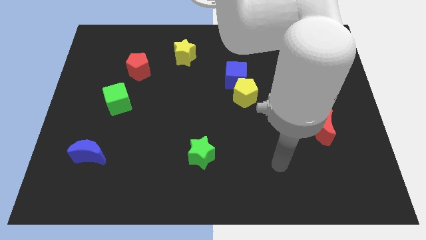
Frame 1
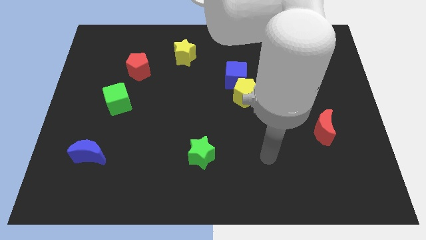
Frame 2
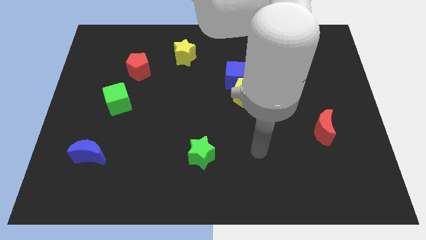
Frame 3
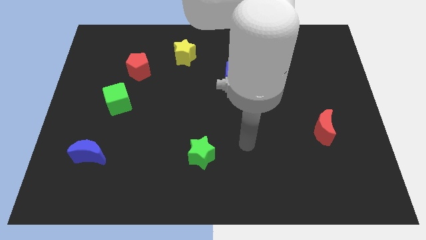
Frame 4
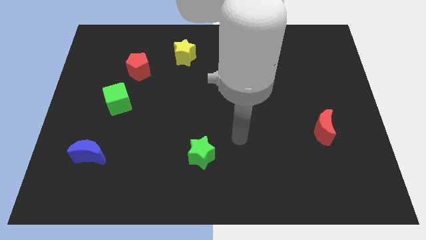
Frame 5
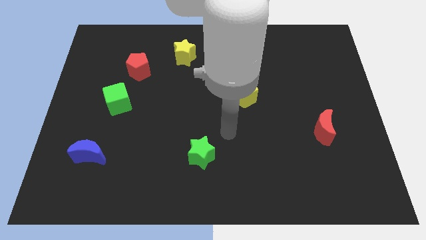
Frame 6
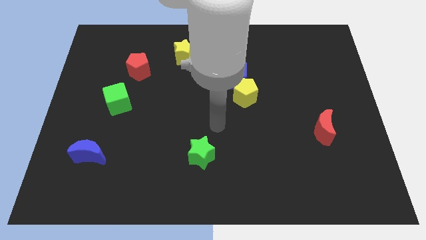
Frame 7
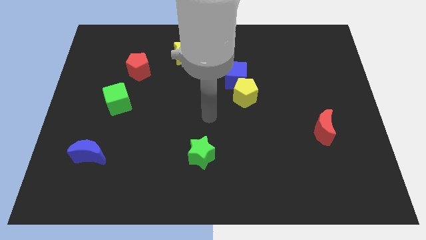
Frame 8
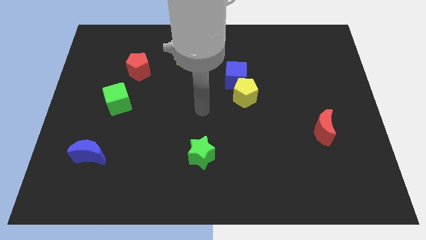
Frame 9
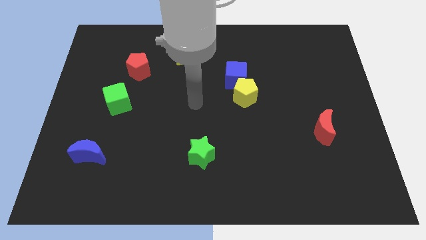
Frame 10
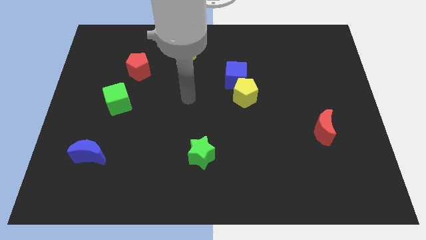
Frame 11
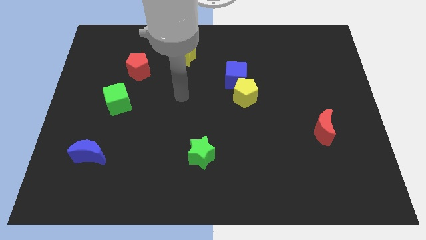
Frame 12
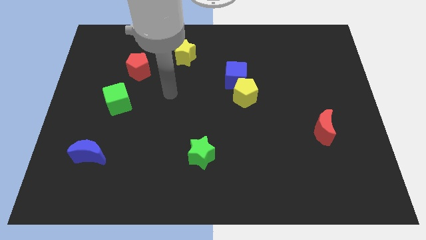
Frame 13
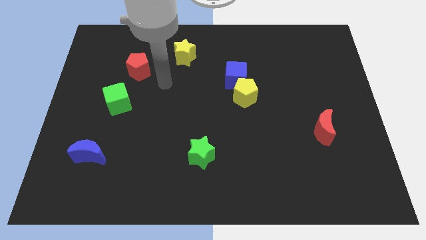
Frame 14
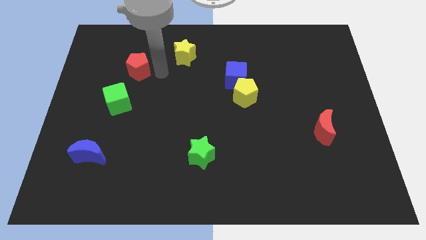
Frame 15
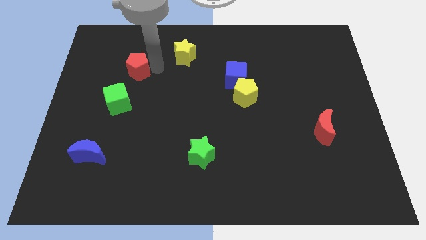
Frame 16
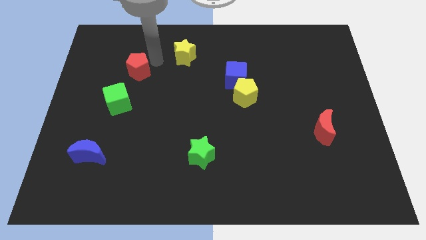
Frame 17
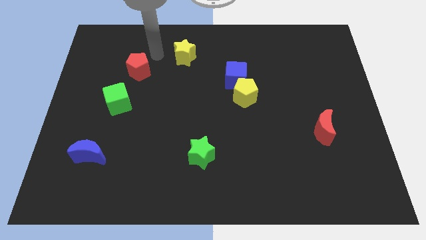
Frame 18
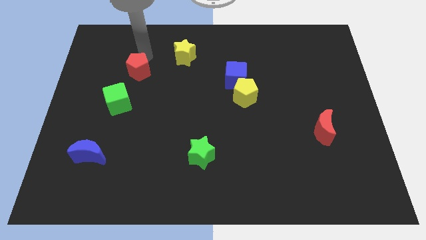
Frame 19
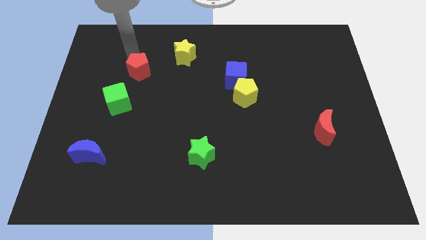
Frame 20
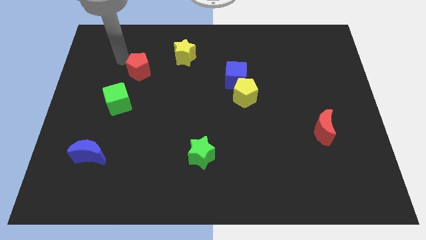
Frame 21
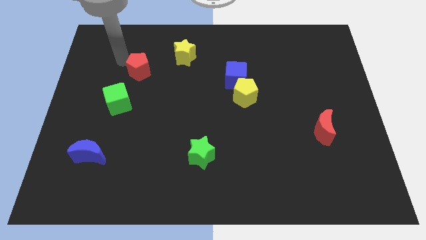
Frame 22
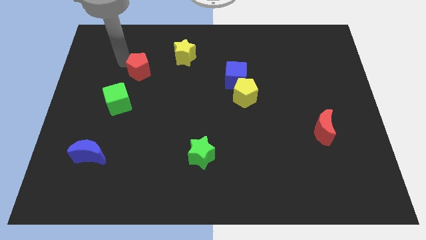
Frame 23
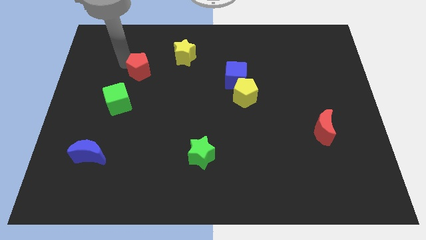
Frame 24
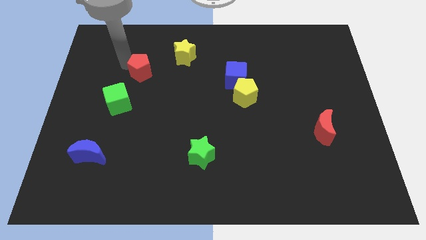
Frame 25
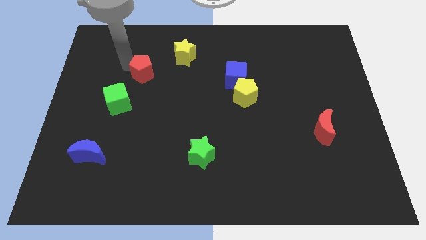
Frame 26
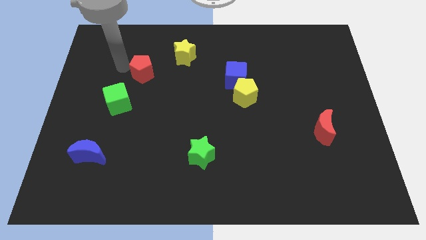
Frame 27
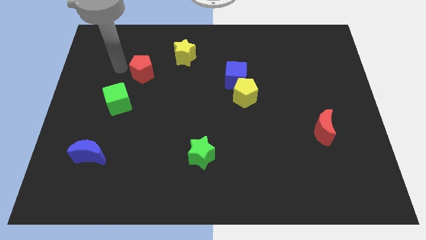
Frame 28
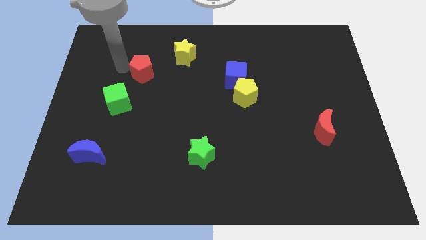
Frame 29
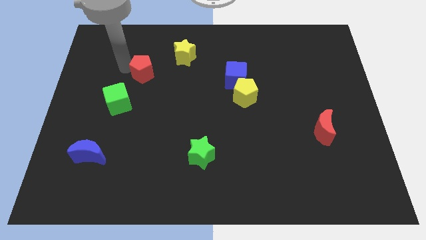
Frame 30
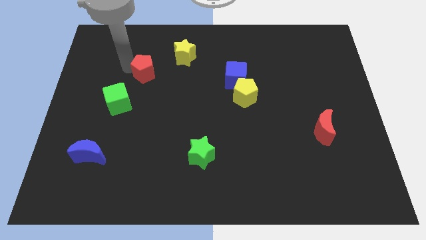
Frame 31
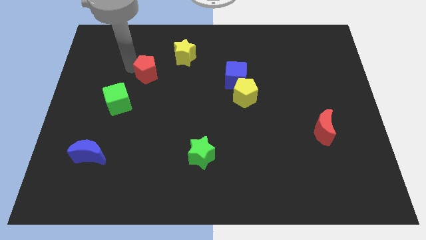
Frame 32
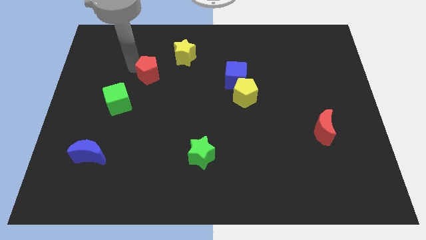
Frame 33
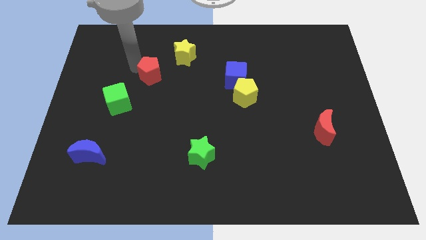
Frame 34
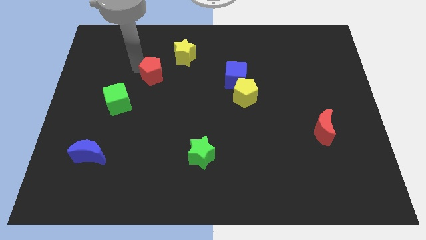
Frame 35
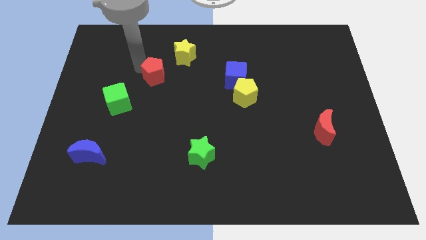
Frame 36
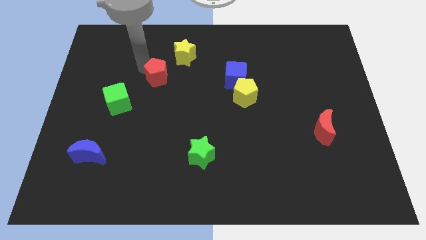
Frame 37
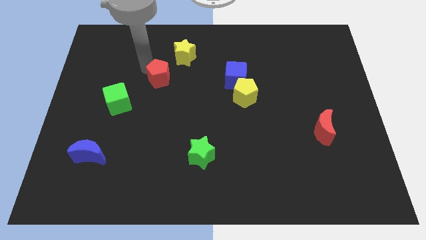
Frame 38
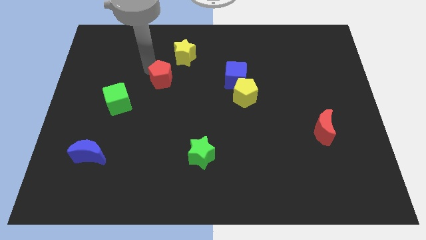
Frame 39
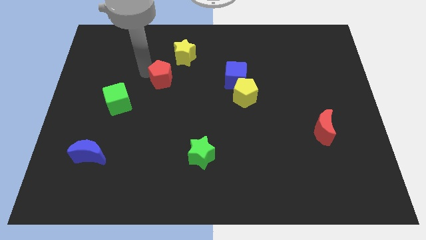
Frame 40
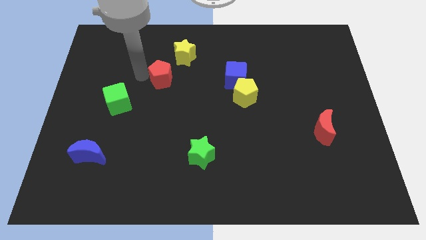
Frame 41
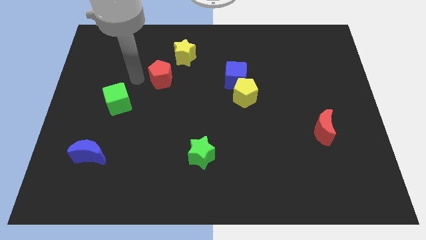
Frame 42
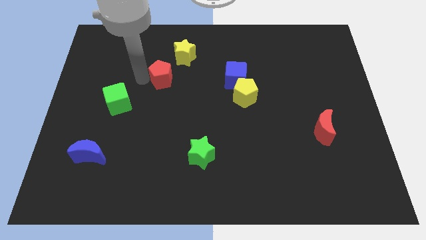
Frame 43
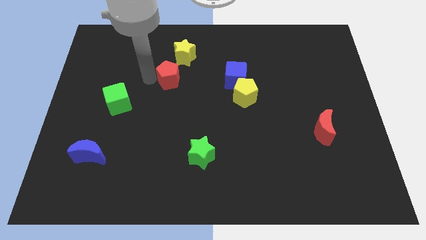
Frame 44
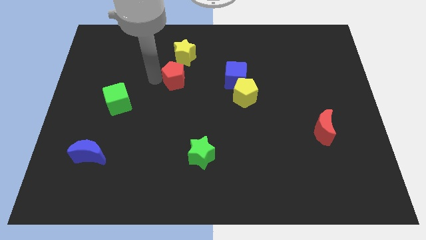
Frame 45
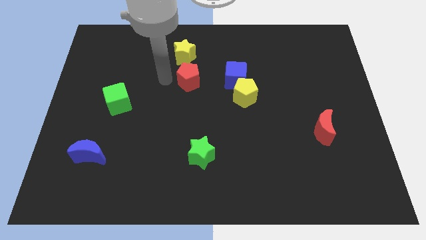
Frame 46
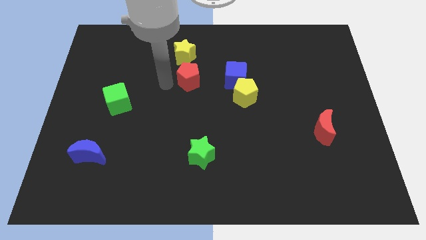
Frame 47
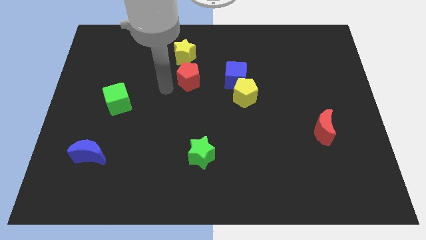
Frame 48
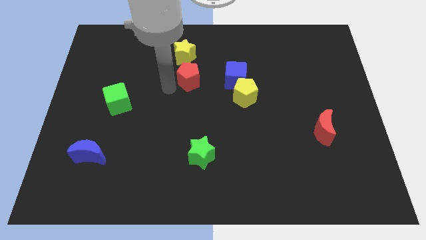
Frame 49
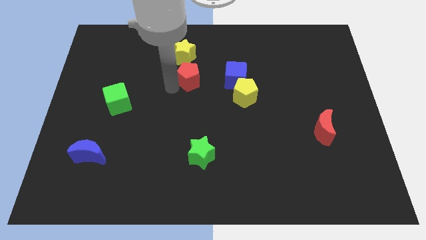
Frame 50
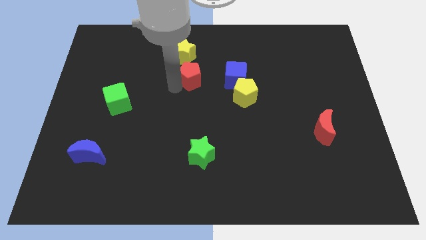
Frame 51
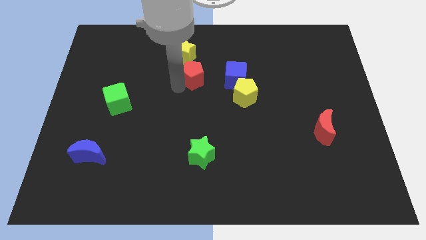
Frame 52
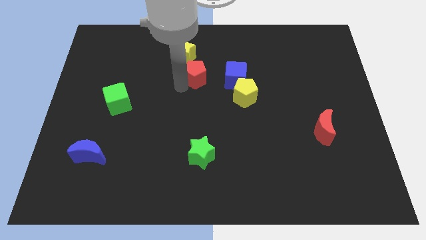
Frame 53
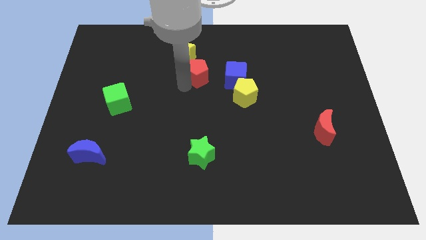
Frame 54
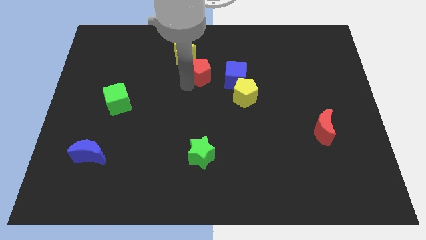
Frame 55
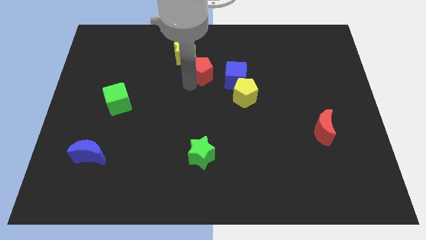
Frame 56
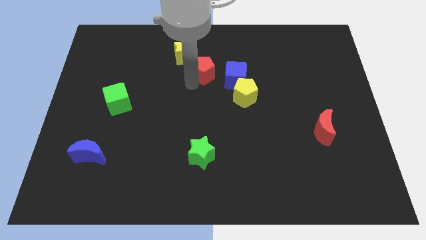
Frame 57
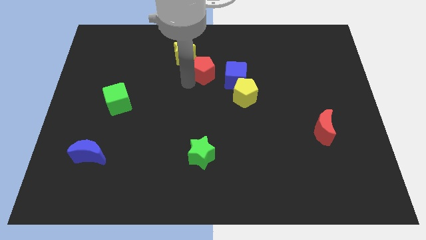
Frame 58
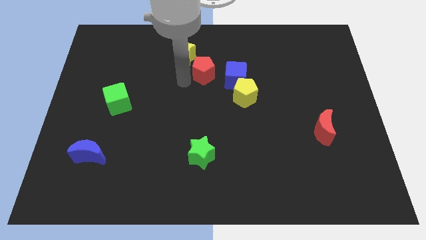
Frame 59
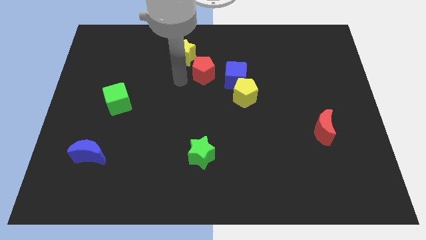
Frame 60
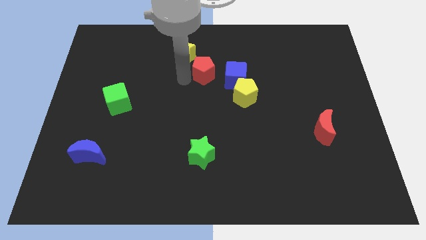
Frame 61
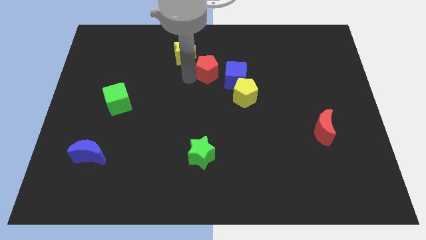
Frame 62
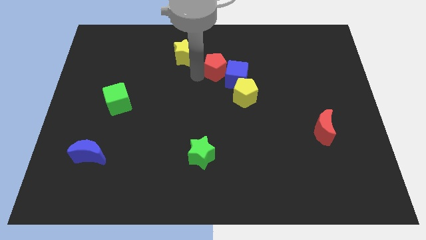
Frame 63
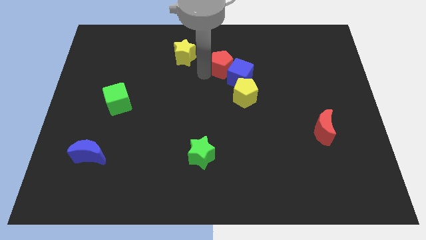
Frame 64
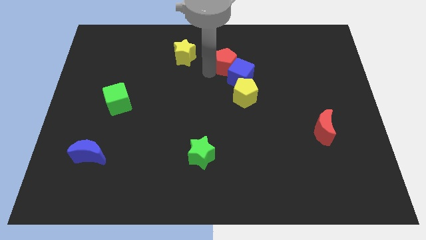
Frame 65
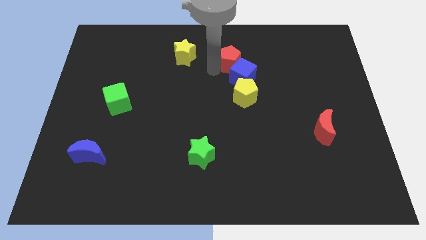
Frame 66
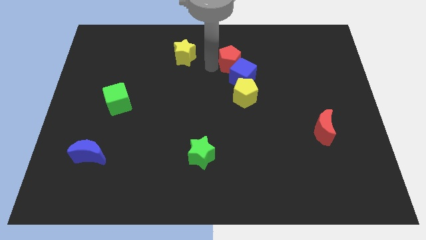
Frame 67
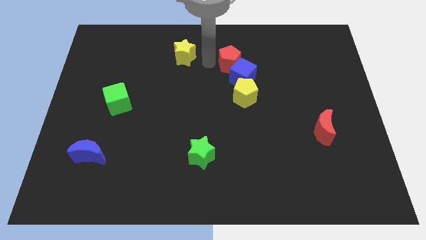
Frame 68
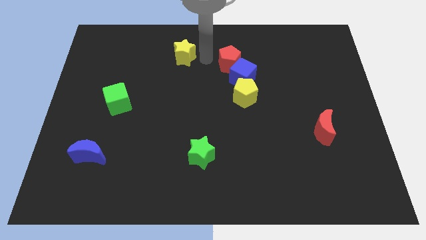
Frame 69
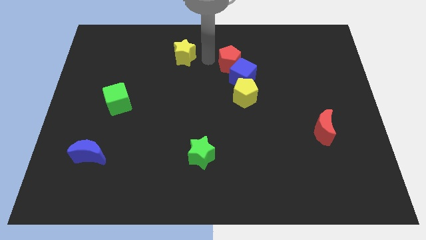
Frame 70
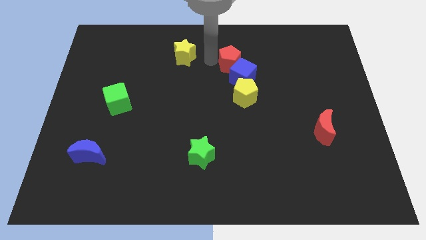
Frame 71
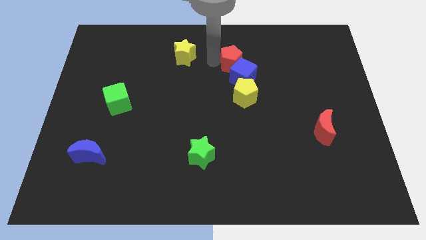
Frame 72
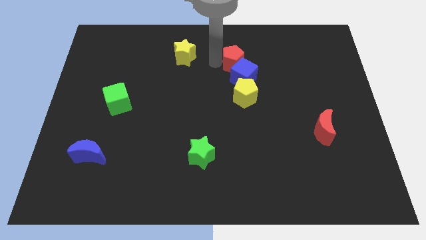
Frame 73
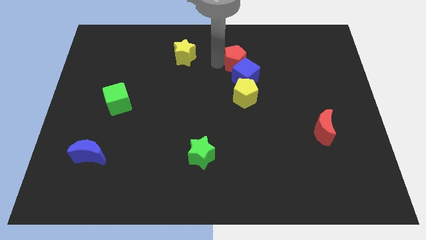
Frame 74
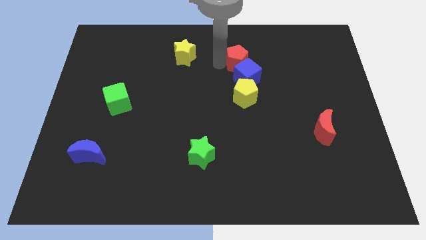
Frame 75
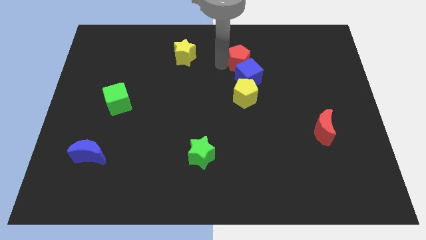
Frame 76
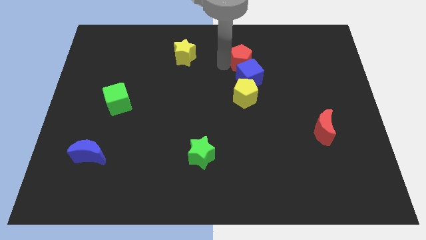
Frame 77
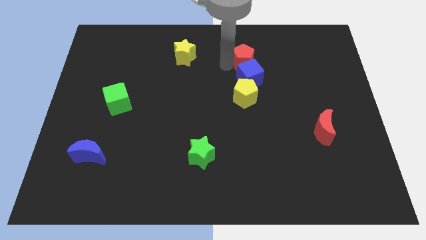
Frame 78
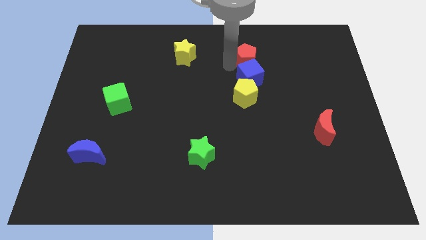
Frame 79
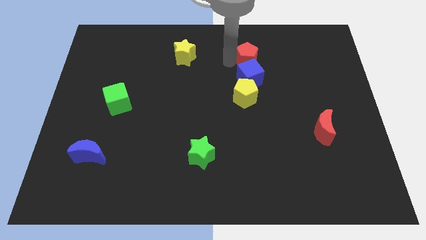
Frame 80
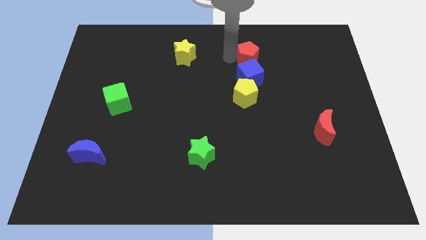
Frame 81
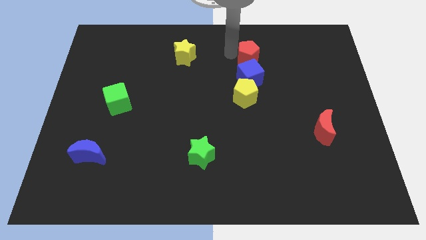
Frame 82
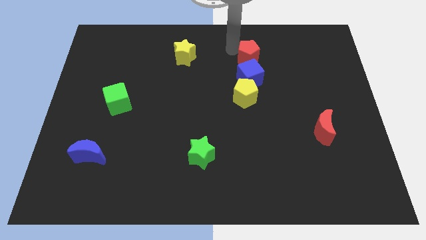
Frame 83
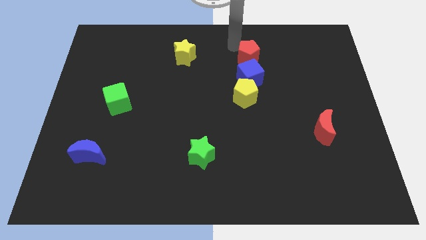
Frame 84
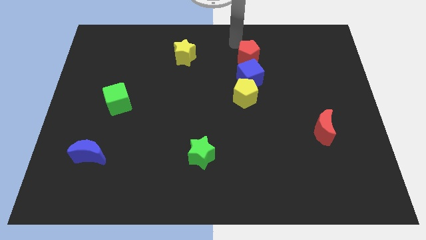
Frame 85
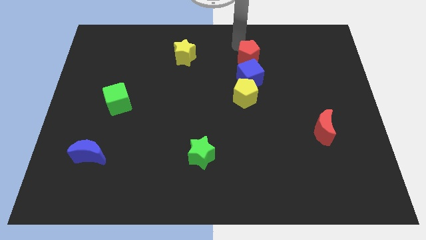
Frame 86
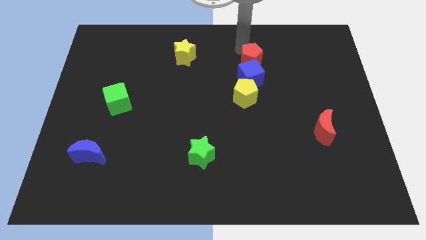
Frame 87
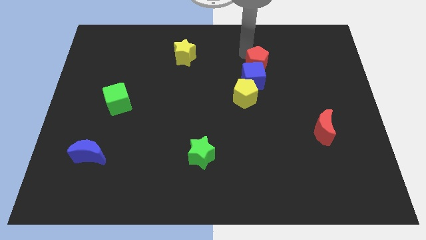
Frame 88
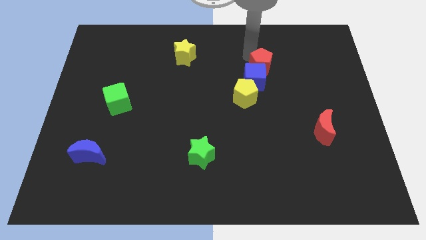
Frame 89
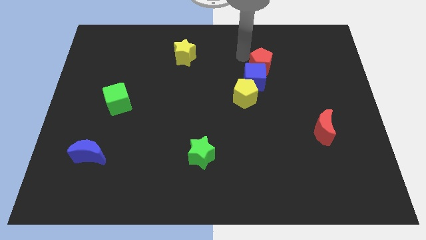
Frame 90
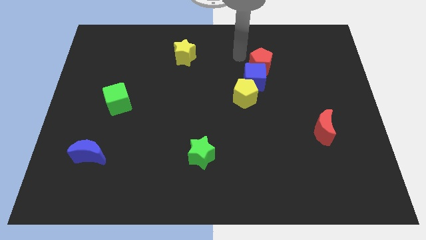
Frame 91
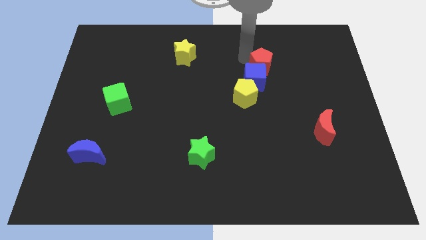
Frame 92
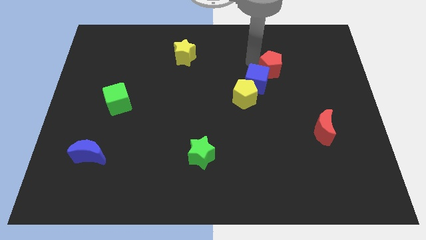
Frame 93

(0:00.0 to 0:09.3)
push the red pentagon right of the blue cube
